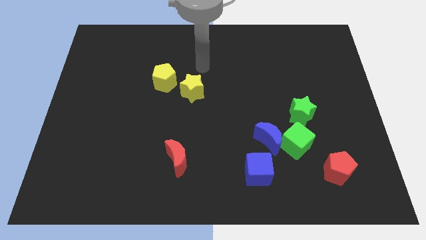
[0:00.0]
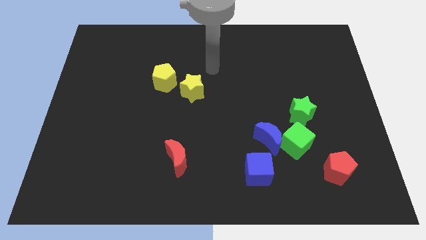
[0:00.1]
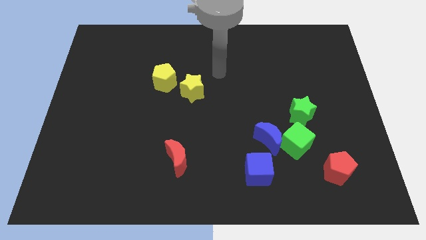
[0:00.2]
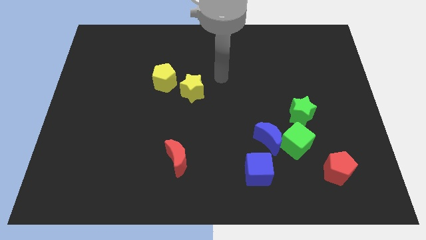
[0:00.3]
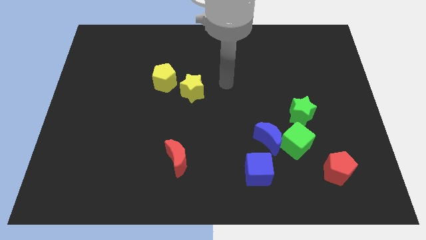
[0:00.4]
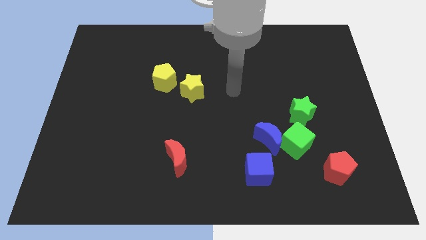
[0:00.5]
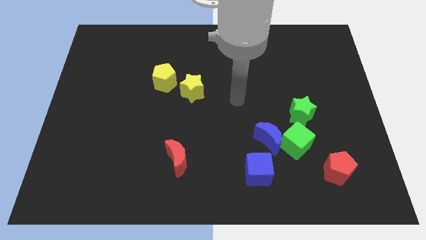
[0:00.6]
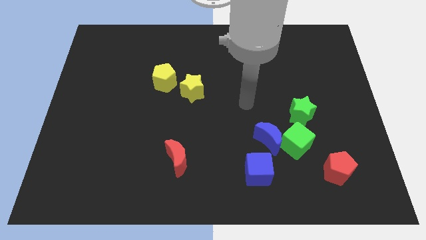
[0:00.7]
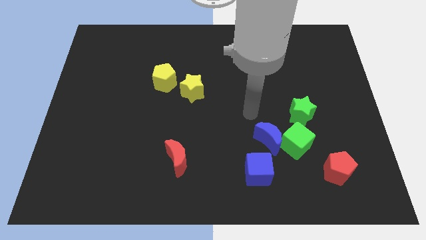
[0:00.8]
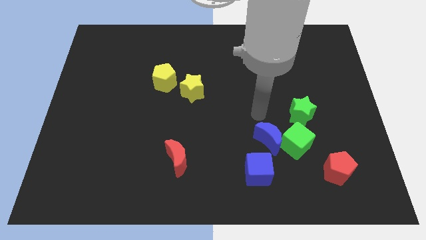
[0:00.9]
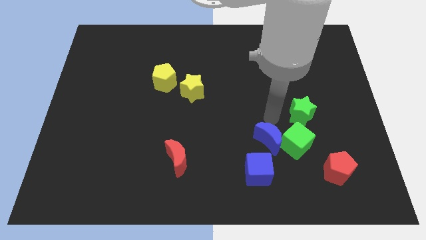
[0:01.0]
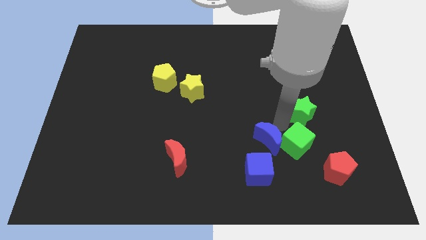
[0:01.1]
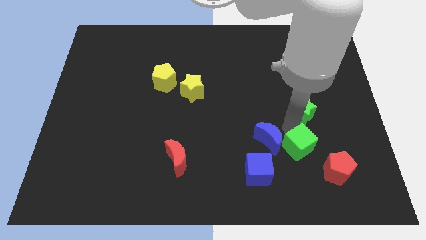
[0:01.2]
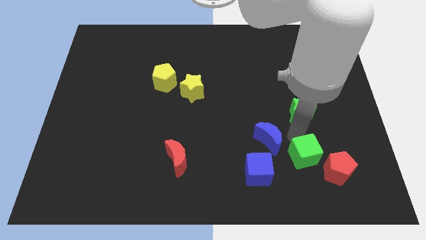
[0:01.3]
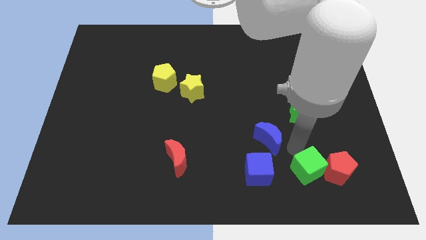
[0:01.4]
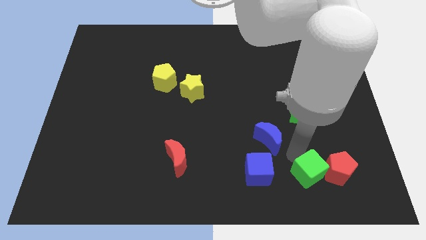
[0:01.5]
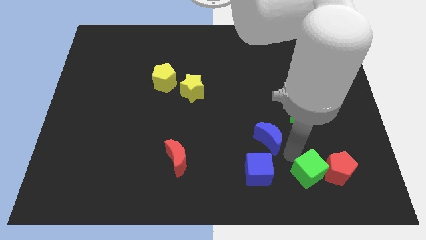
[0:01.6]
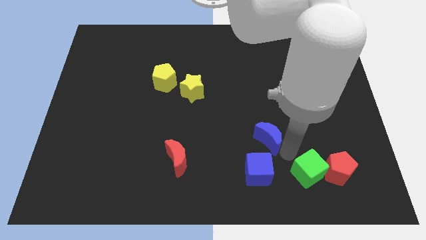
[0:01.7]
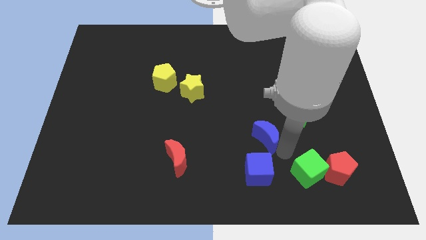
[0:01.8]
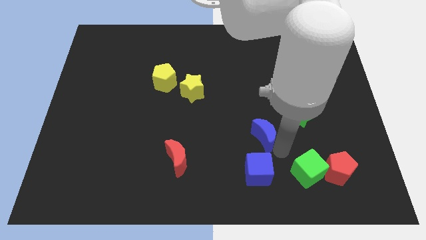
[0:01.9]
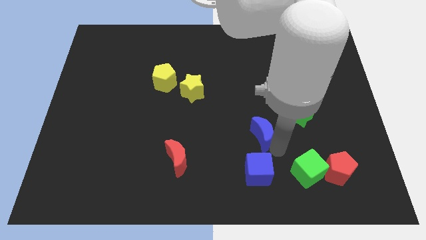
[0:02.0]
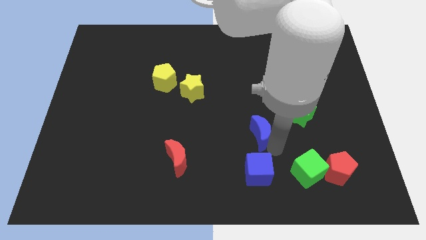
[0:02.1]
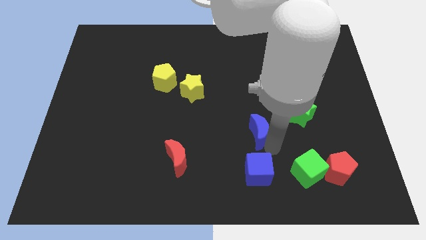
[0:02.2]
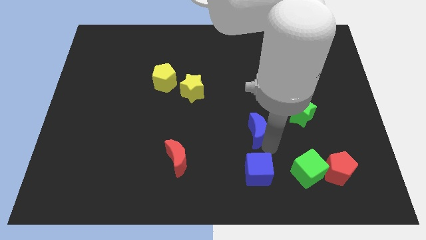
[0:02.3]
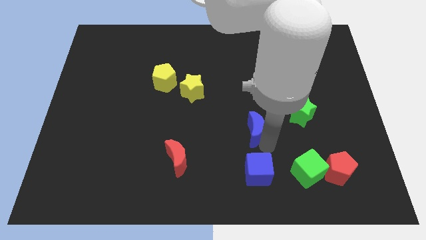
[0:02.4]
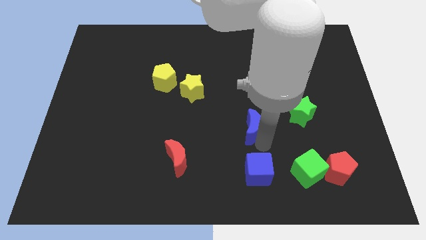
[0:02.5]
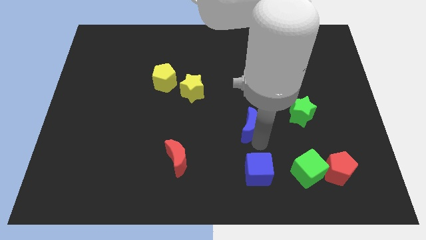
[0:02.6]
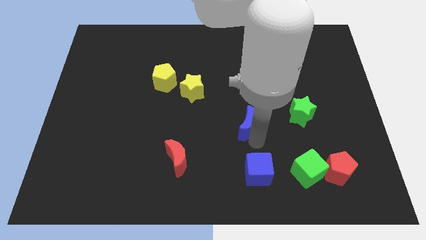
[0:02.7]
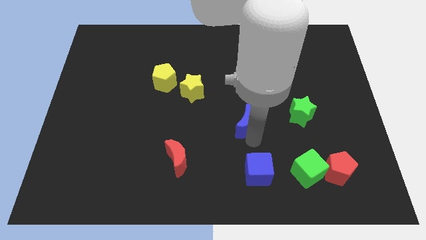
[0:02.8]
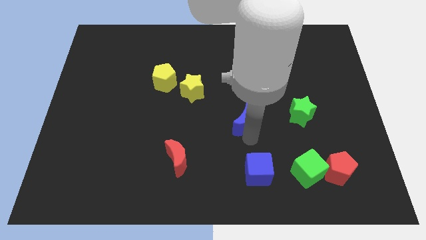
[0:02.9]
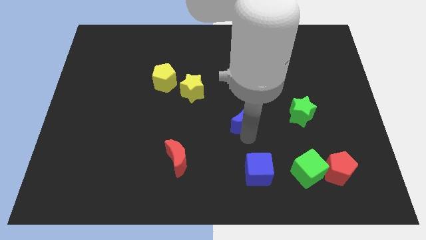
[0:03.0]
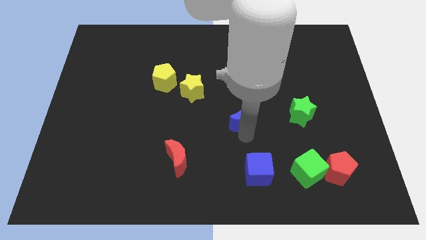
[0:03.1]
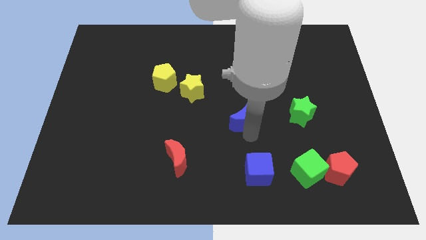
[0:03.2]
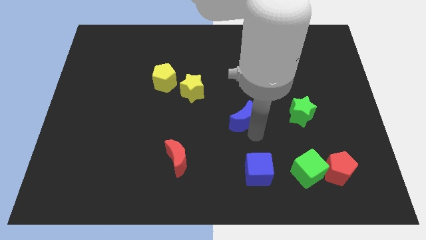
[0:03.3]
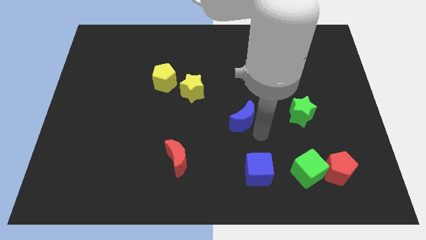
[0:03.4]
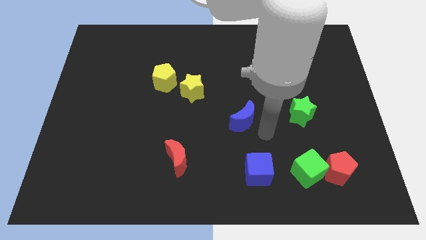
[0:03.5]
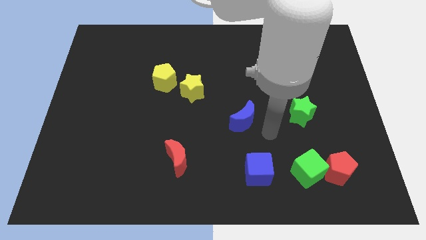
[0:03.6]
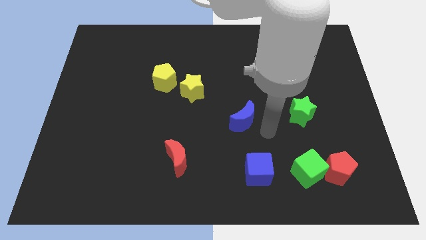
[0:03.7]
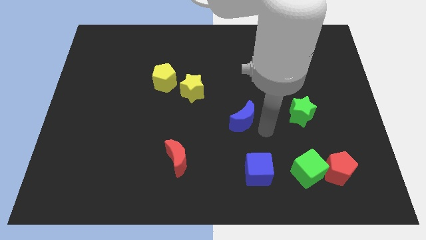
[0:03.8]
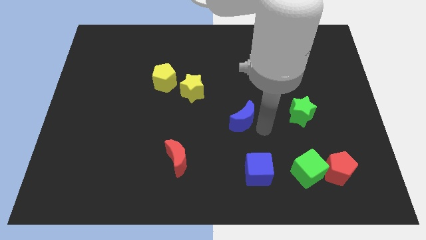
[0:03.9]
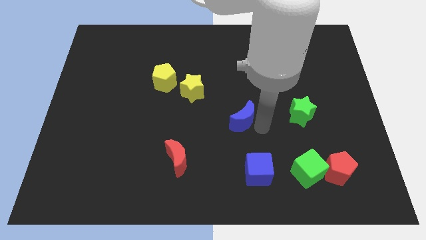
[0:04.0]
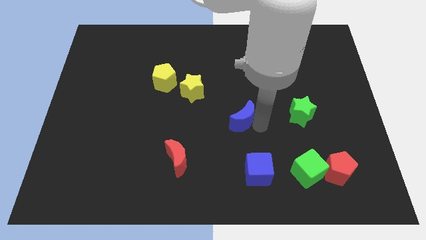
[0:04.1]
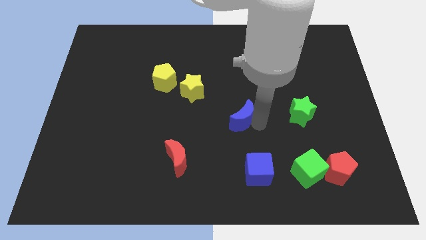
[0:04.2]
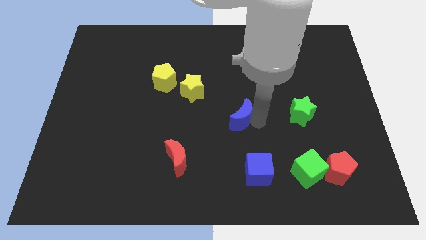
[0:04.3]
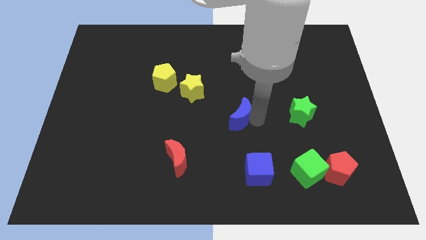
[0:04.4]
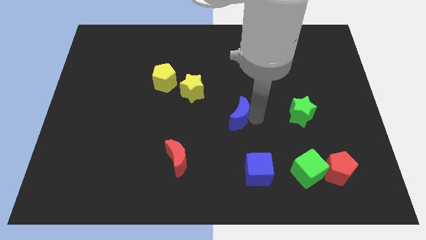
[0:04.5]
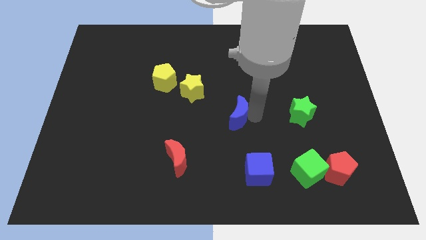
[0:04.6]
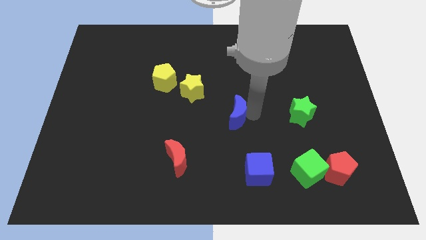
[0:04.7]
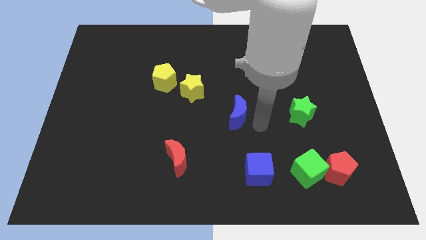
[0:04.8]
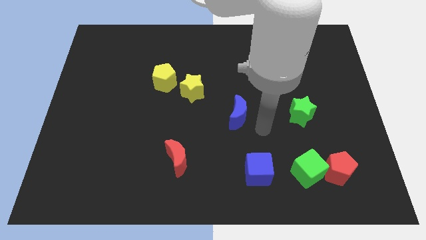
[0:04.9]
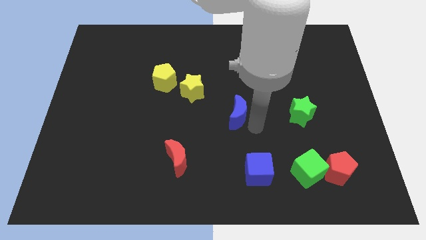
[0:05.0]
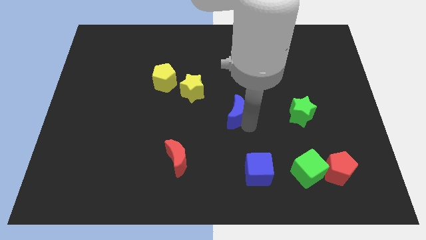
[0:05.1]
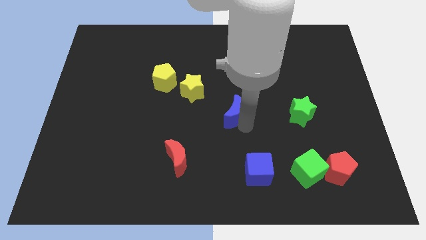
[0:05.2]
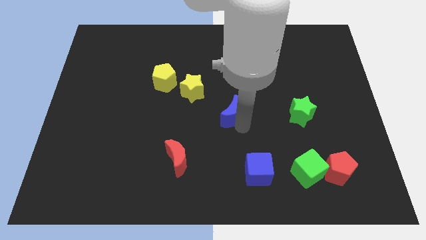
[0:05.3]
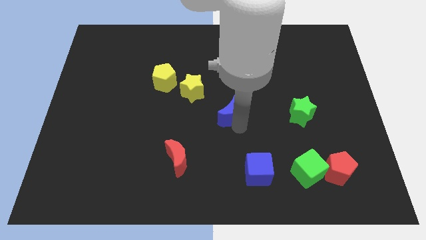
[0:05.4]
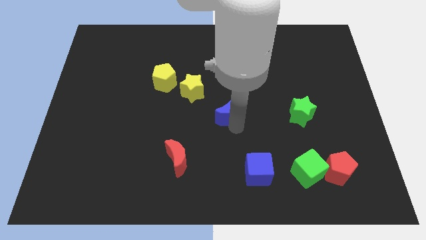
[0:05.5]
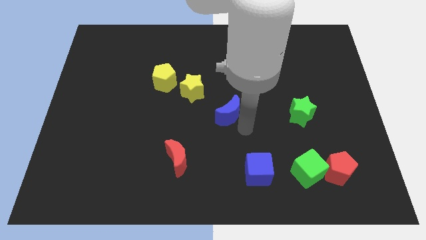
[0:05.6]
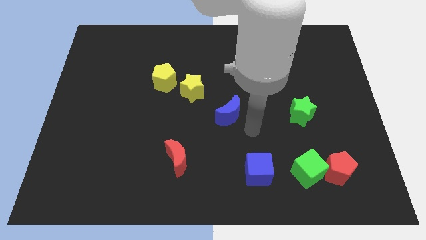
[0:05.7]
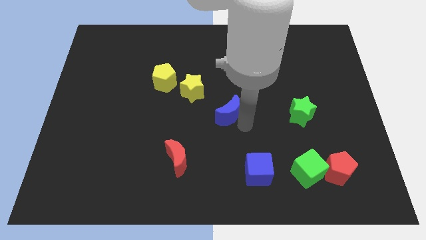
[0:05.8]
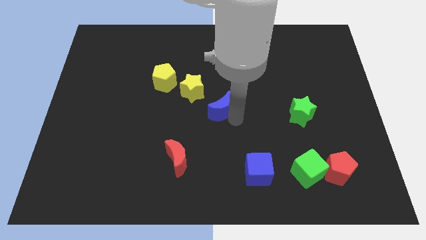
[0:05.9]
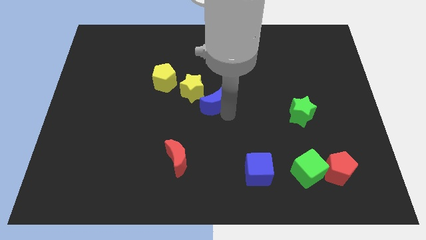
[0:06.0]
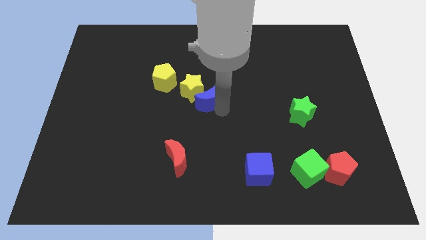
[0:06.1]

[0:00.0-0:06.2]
move the blue moon next to the yellow star

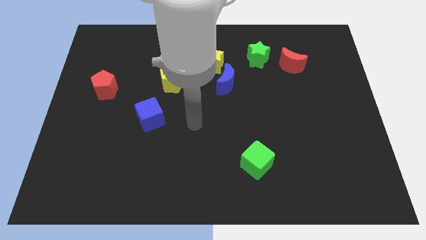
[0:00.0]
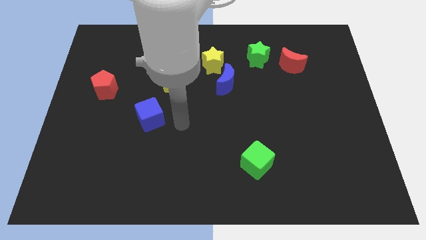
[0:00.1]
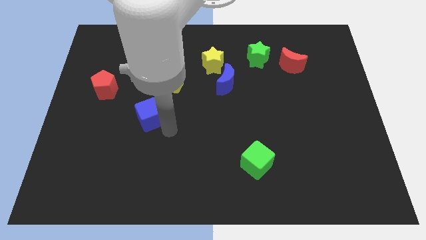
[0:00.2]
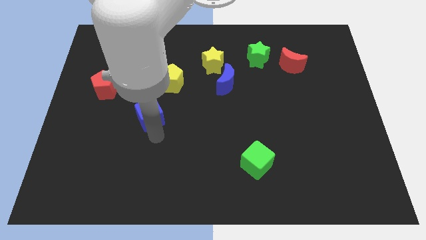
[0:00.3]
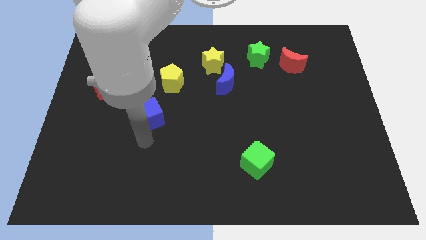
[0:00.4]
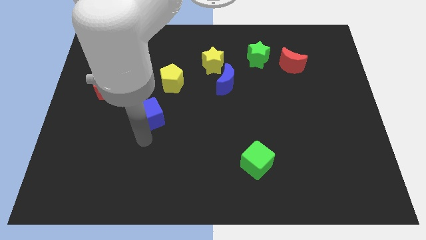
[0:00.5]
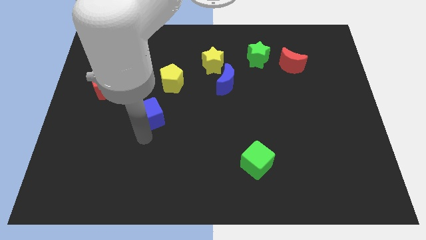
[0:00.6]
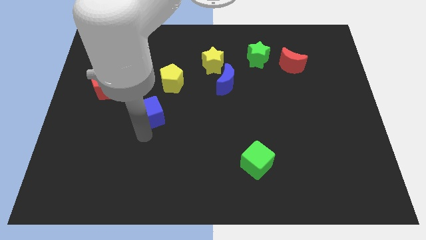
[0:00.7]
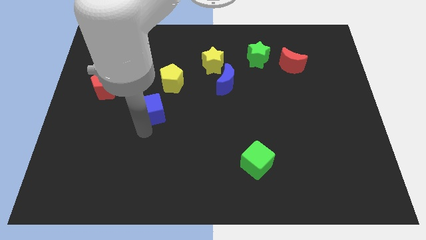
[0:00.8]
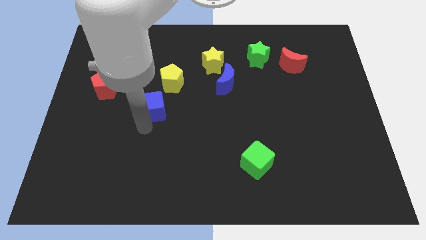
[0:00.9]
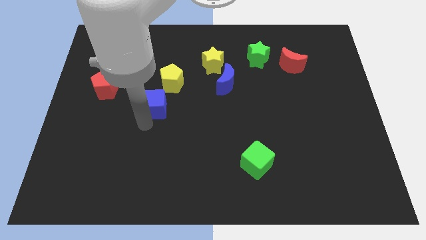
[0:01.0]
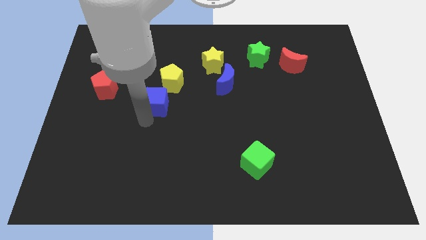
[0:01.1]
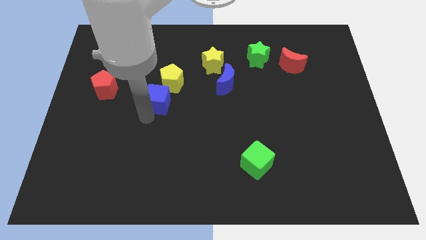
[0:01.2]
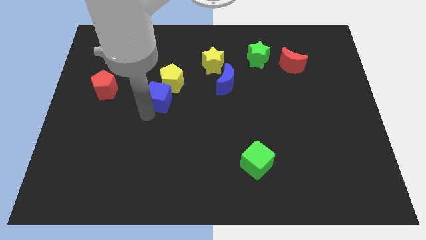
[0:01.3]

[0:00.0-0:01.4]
put the blue cube next to the yellow pentagon

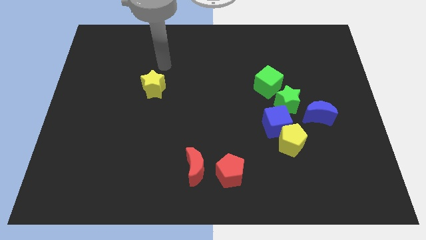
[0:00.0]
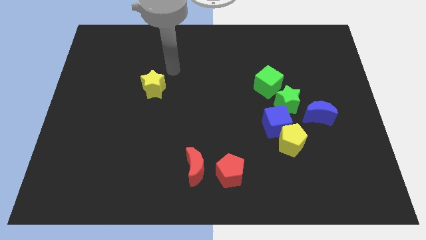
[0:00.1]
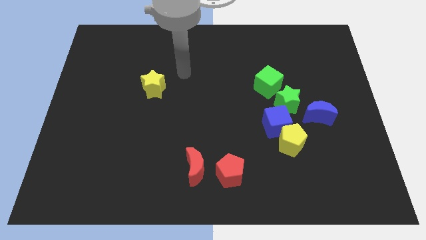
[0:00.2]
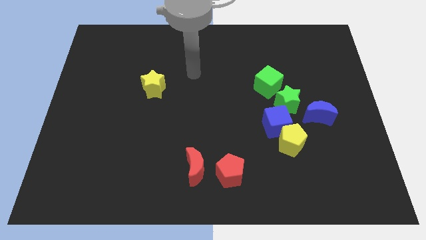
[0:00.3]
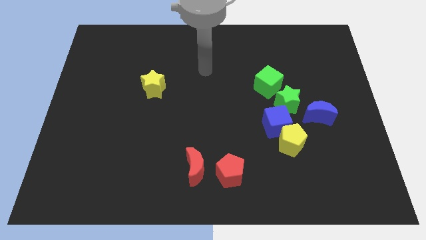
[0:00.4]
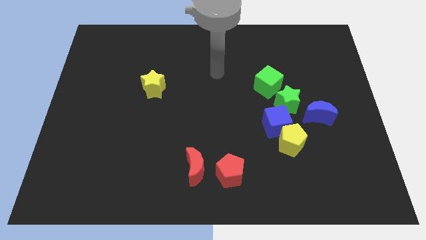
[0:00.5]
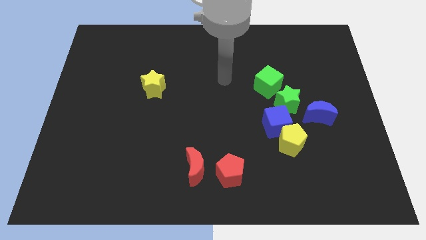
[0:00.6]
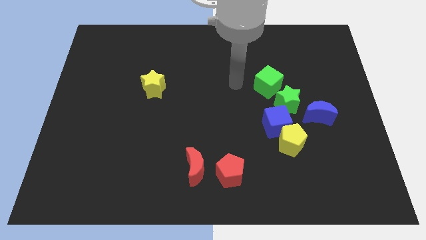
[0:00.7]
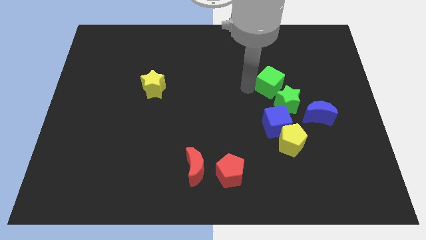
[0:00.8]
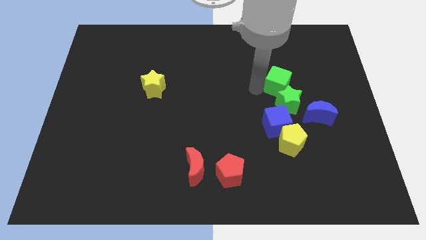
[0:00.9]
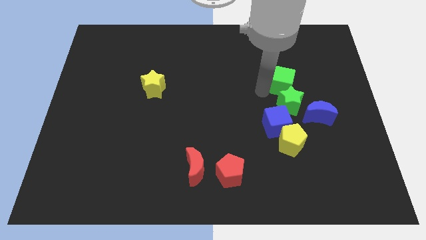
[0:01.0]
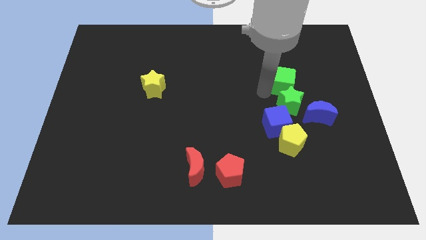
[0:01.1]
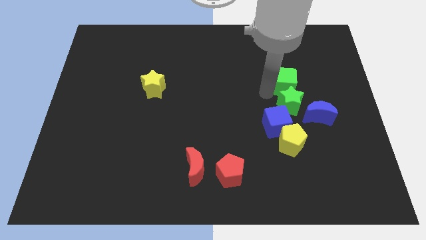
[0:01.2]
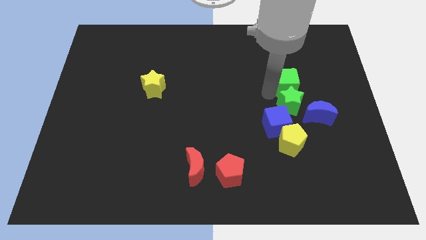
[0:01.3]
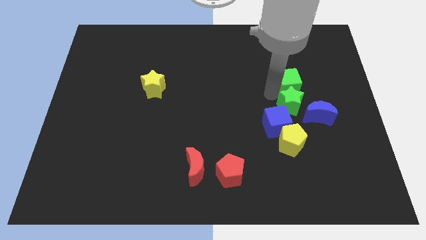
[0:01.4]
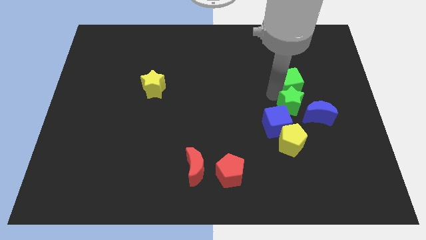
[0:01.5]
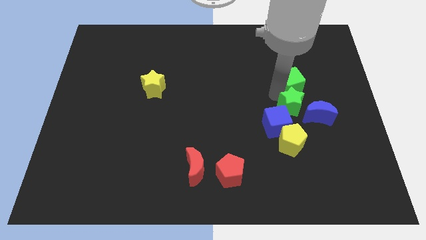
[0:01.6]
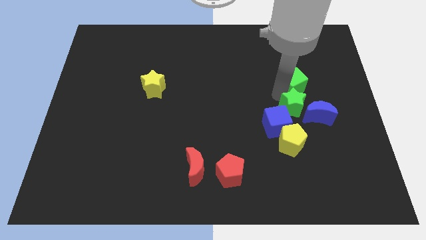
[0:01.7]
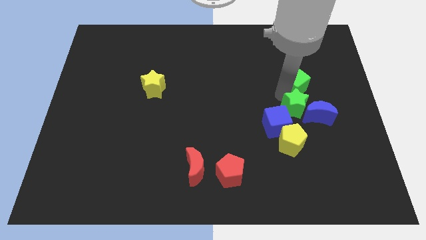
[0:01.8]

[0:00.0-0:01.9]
slide the green star close to the blue moon
